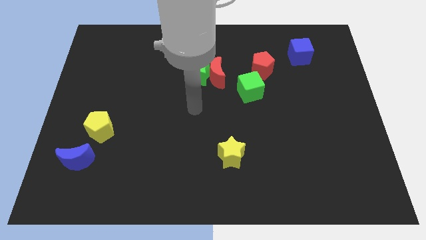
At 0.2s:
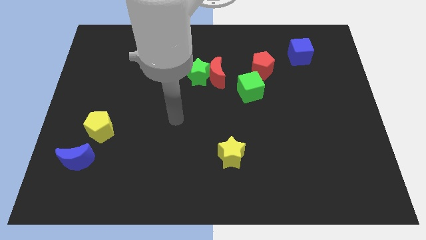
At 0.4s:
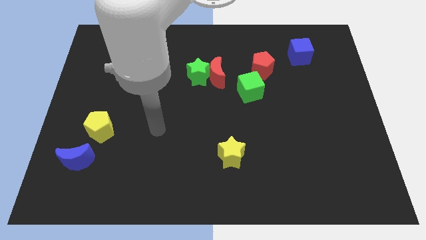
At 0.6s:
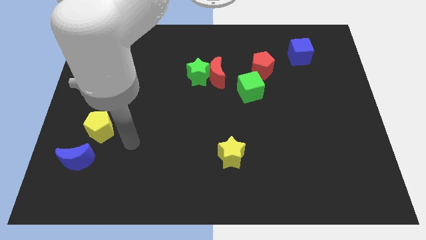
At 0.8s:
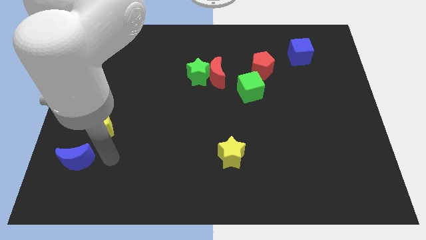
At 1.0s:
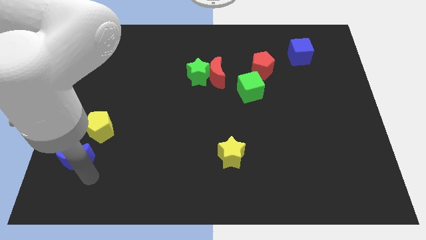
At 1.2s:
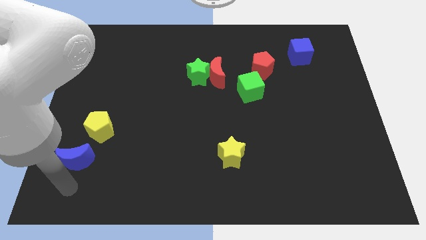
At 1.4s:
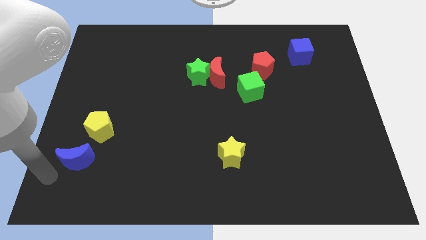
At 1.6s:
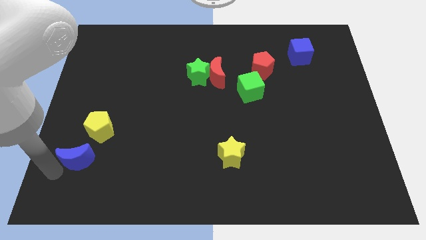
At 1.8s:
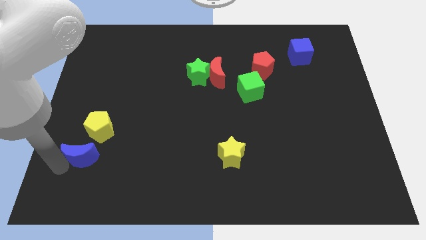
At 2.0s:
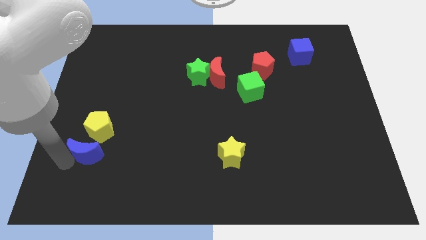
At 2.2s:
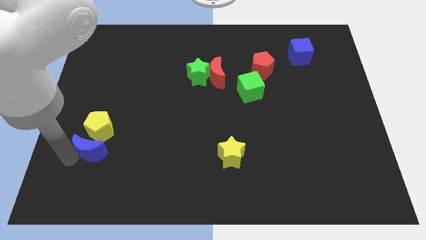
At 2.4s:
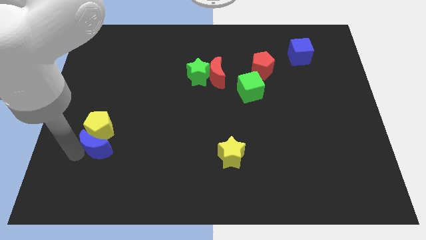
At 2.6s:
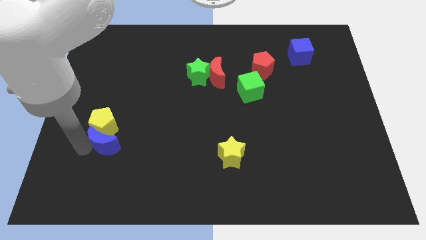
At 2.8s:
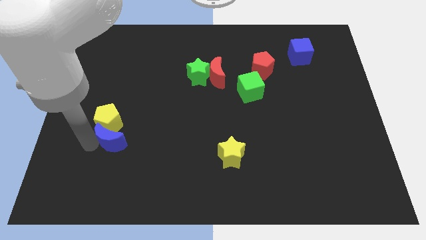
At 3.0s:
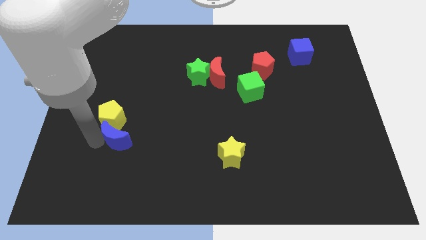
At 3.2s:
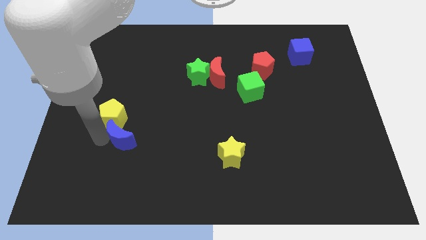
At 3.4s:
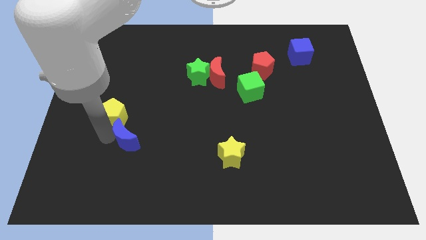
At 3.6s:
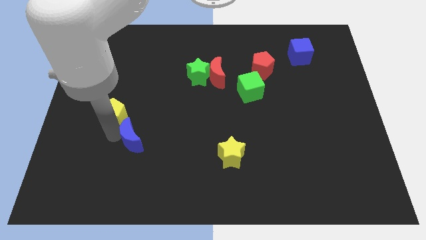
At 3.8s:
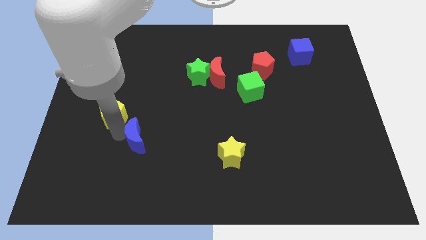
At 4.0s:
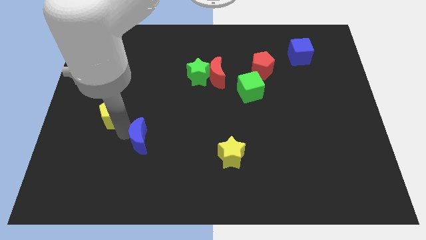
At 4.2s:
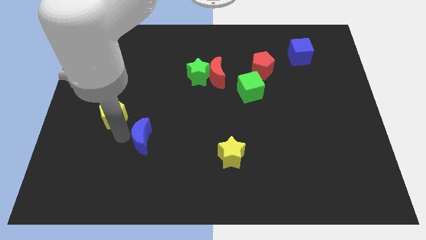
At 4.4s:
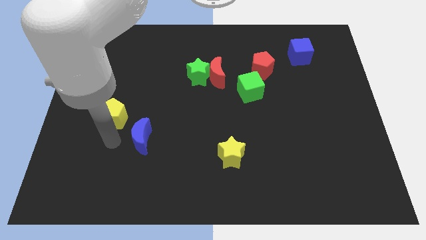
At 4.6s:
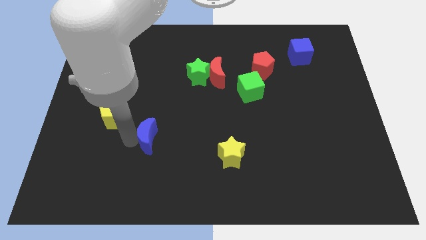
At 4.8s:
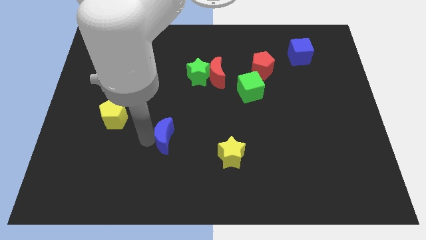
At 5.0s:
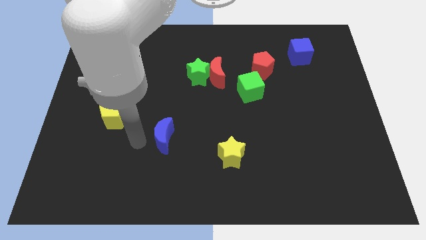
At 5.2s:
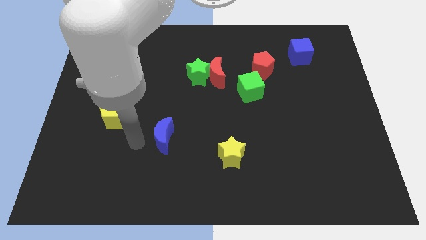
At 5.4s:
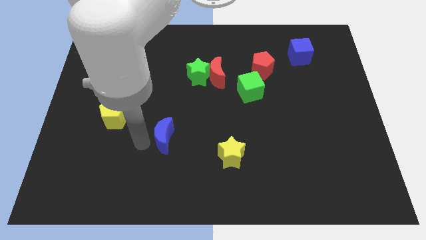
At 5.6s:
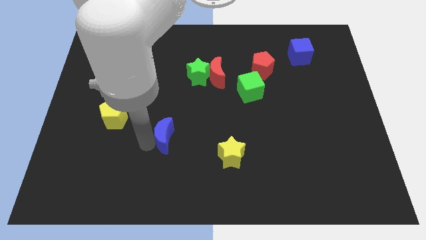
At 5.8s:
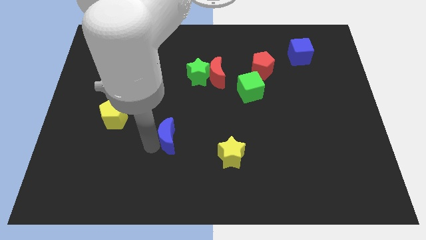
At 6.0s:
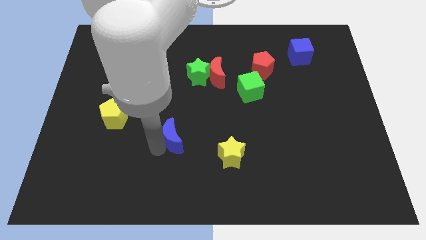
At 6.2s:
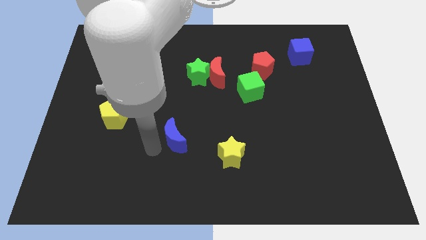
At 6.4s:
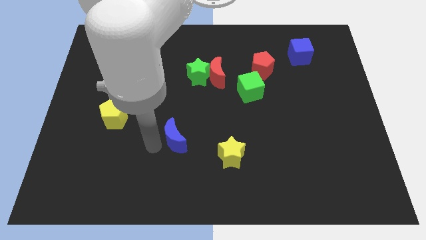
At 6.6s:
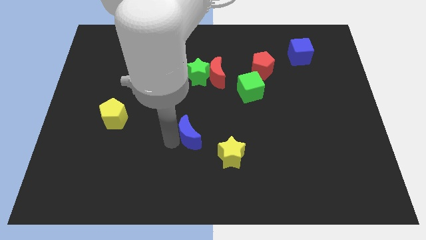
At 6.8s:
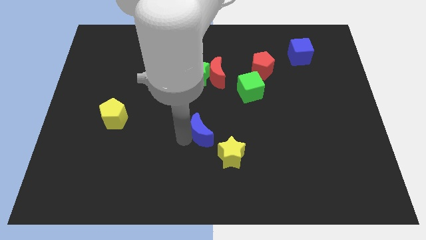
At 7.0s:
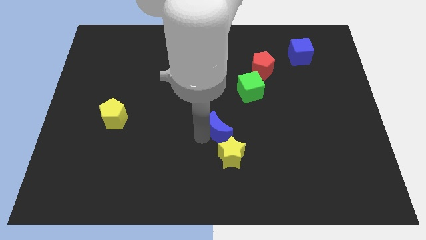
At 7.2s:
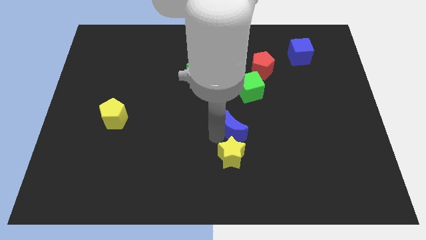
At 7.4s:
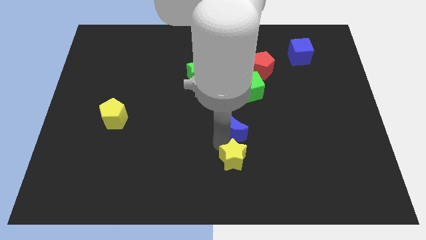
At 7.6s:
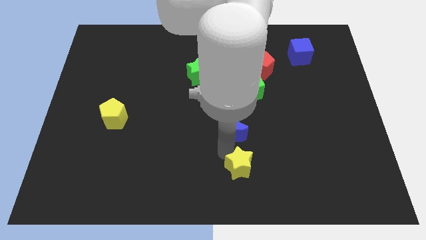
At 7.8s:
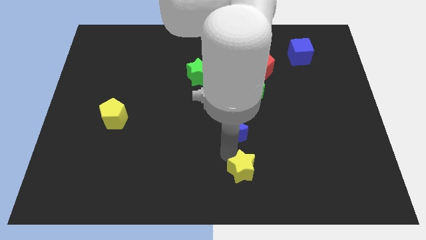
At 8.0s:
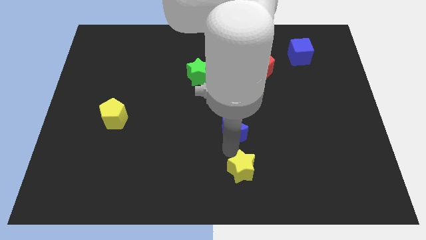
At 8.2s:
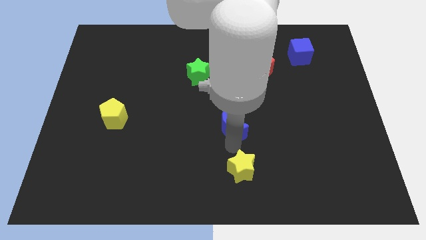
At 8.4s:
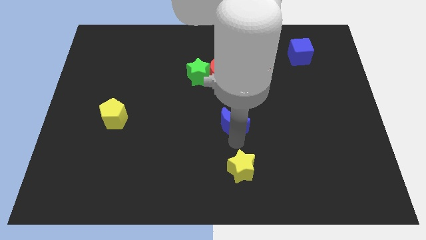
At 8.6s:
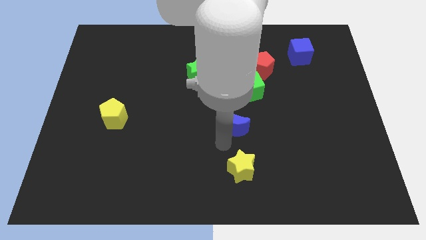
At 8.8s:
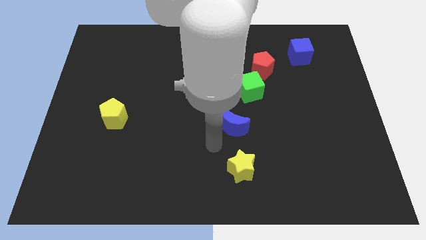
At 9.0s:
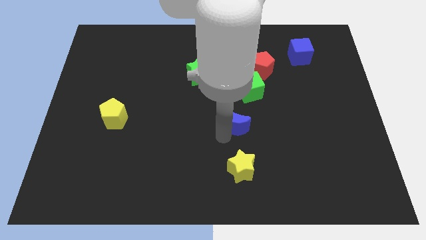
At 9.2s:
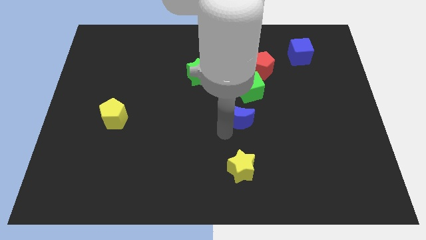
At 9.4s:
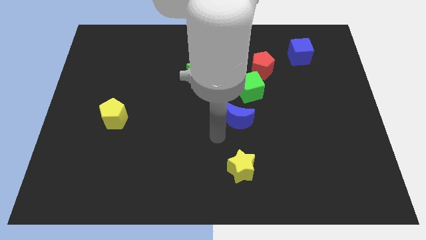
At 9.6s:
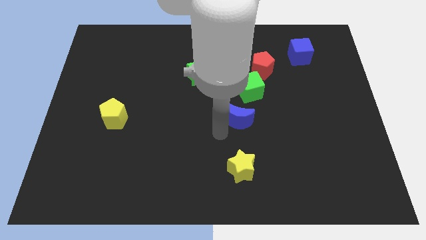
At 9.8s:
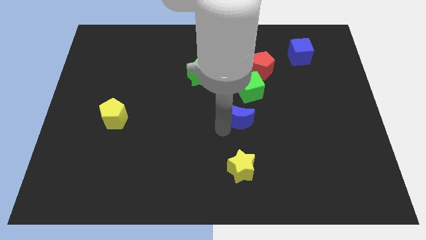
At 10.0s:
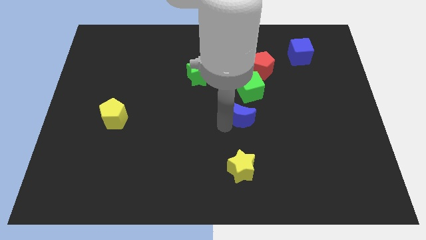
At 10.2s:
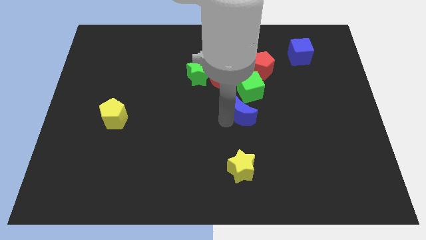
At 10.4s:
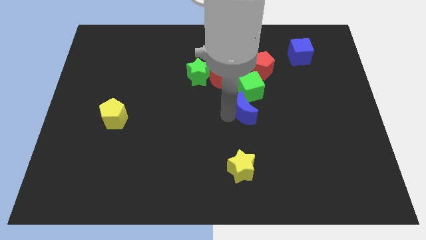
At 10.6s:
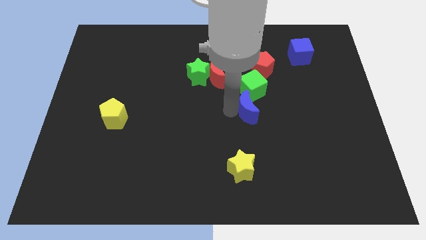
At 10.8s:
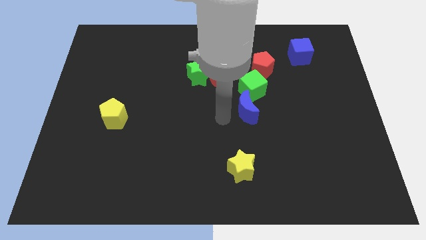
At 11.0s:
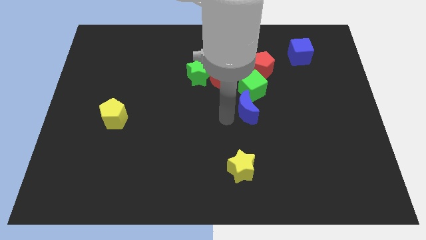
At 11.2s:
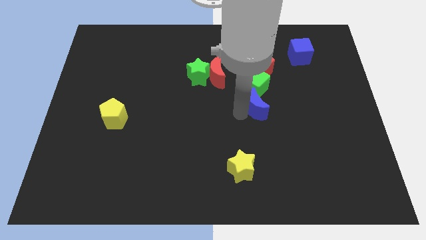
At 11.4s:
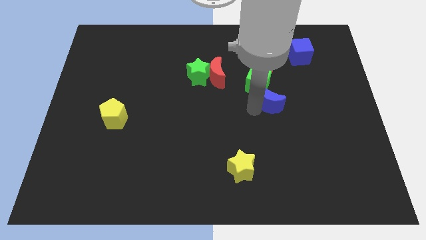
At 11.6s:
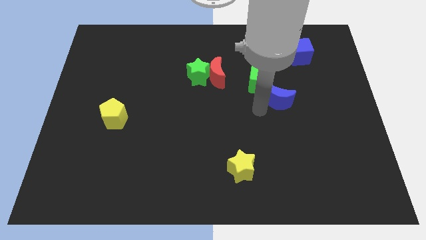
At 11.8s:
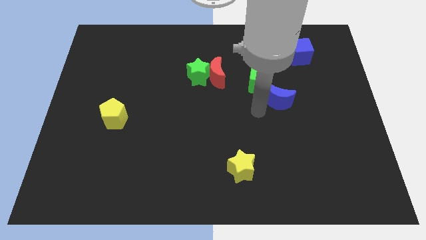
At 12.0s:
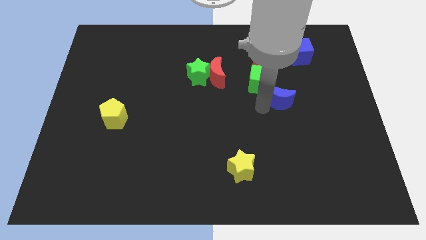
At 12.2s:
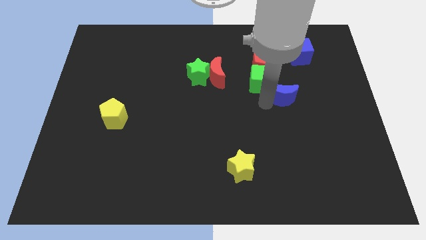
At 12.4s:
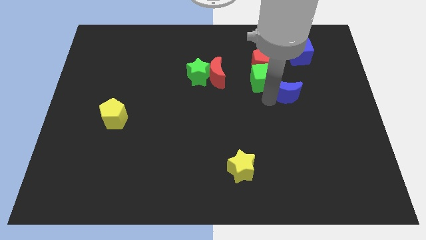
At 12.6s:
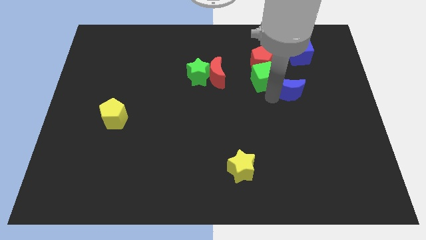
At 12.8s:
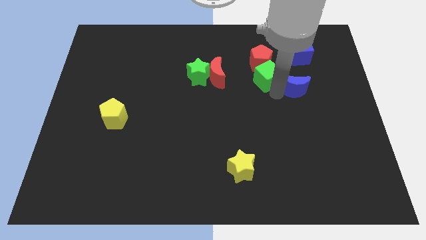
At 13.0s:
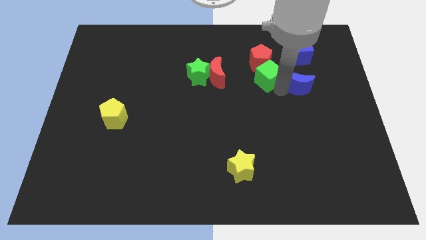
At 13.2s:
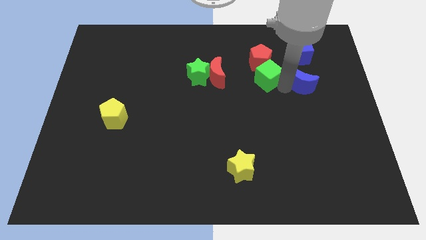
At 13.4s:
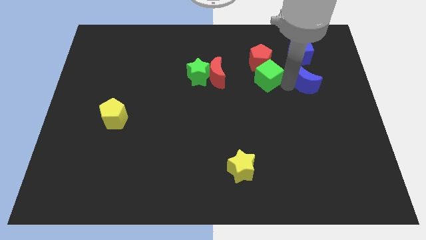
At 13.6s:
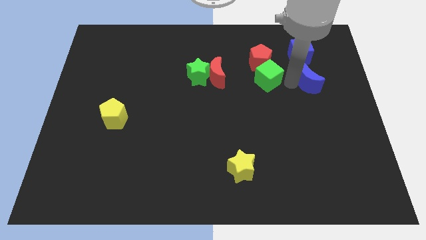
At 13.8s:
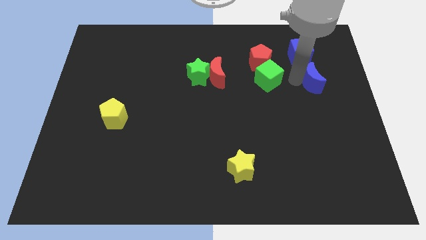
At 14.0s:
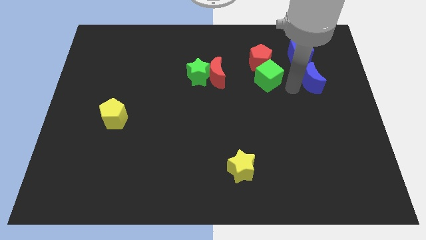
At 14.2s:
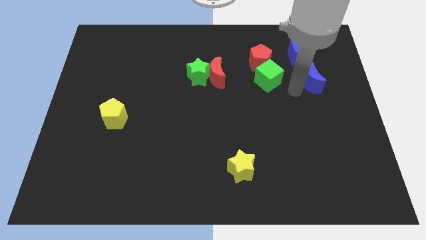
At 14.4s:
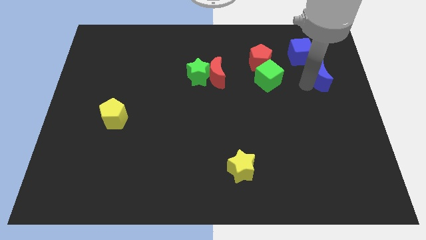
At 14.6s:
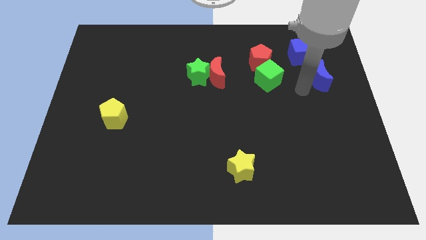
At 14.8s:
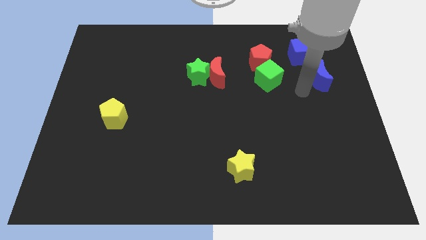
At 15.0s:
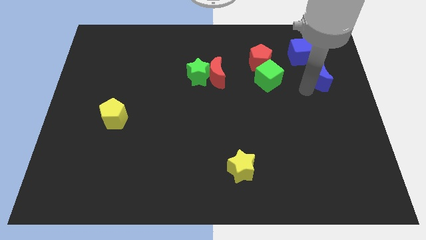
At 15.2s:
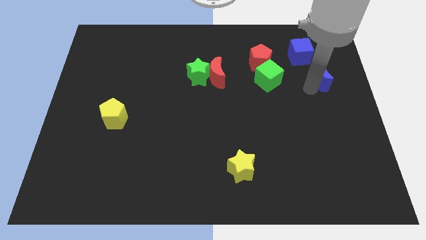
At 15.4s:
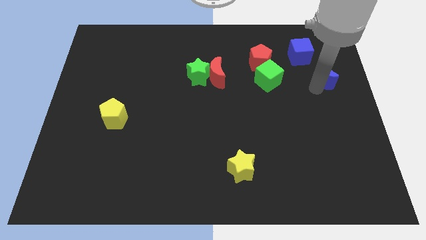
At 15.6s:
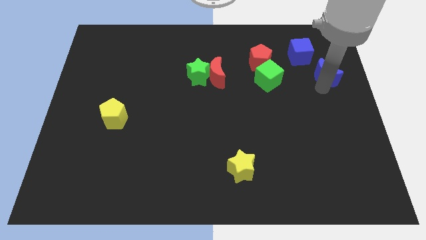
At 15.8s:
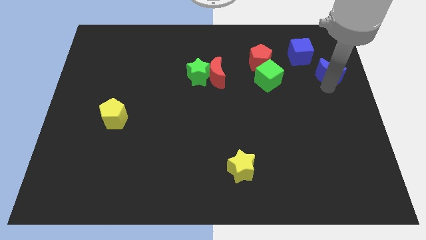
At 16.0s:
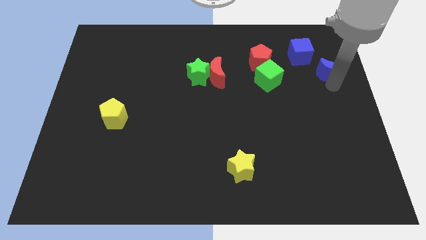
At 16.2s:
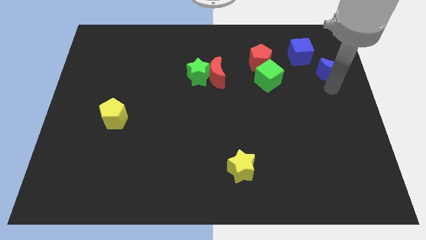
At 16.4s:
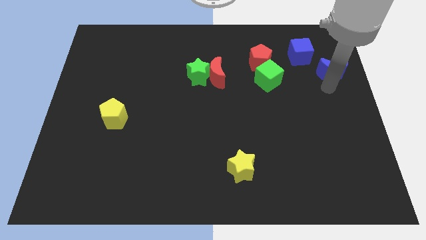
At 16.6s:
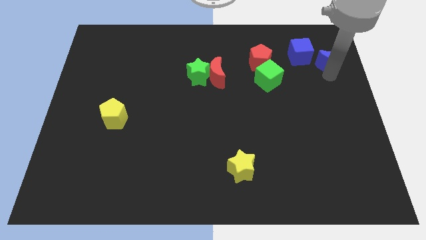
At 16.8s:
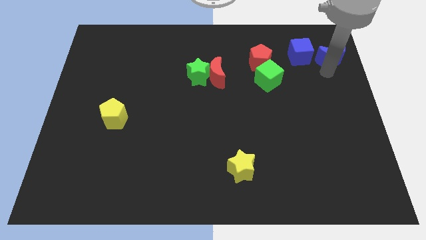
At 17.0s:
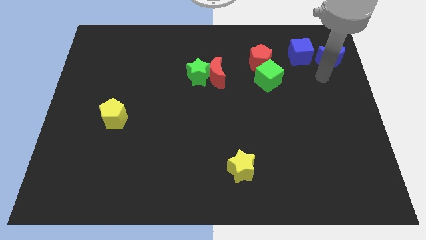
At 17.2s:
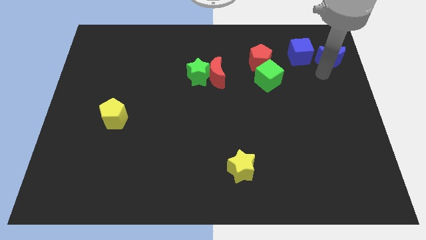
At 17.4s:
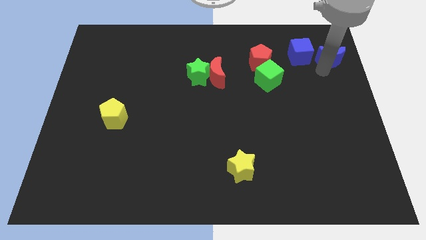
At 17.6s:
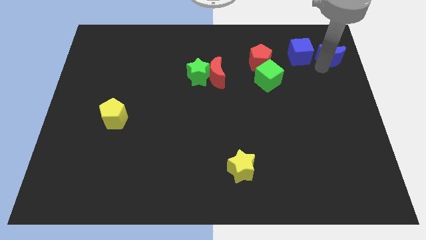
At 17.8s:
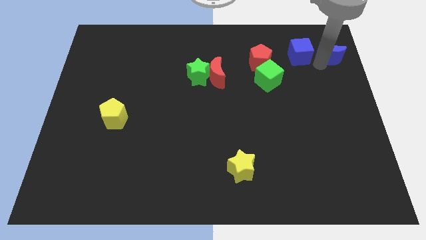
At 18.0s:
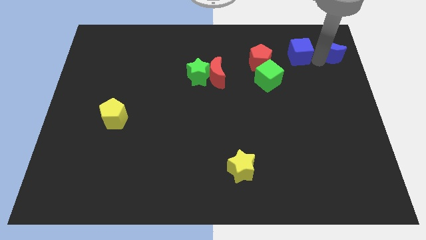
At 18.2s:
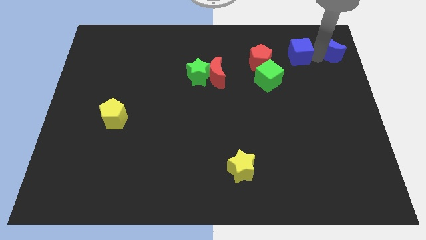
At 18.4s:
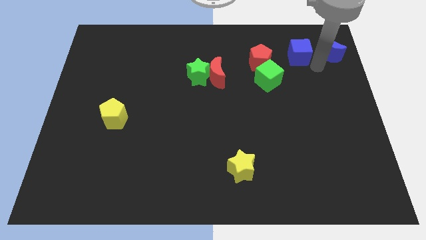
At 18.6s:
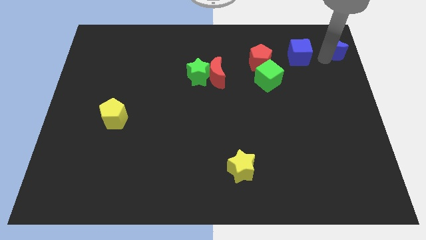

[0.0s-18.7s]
push the blue moon to the top right corner
